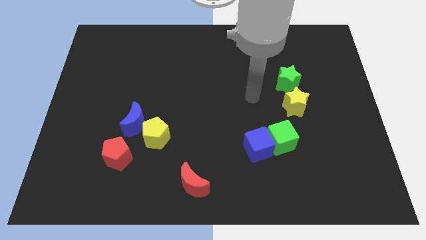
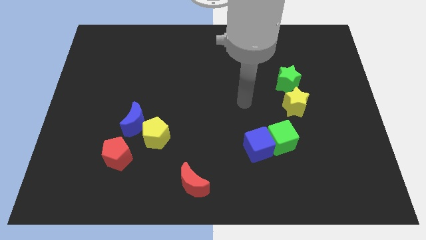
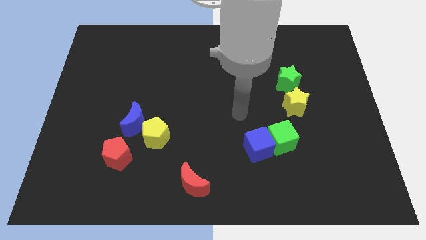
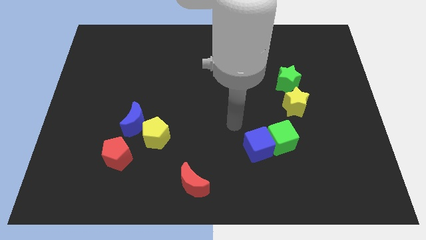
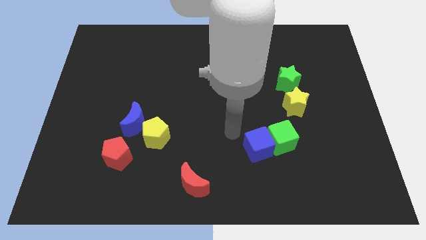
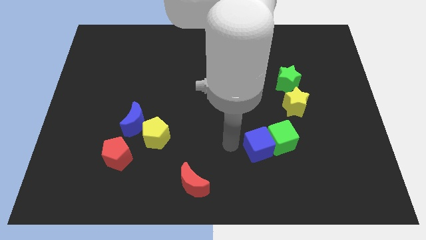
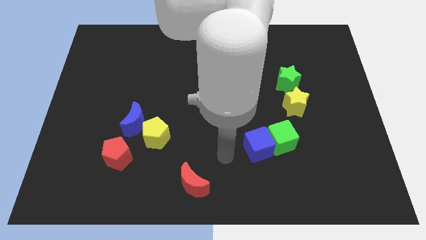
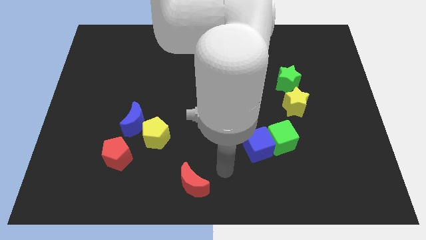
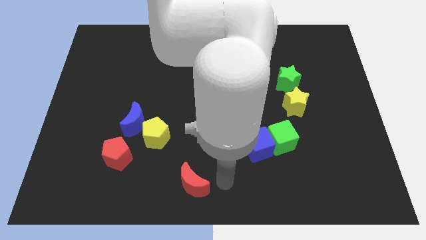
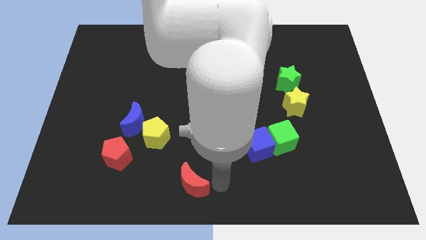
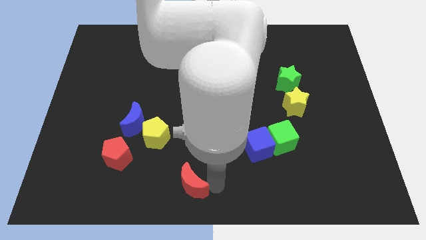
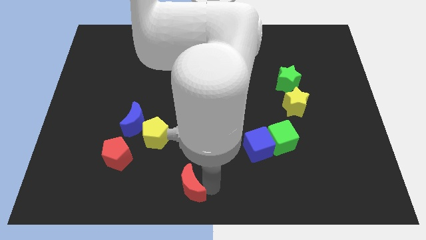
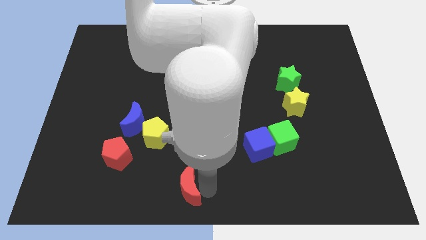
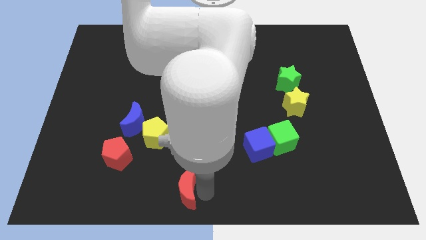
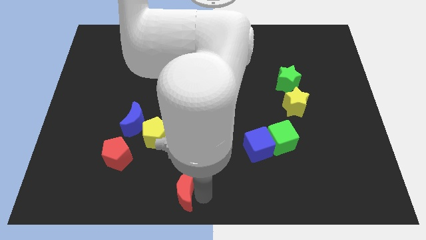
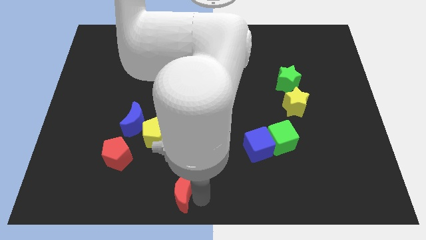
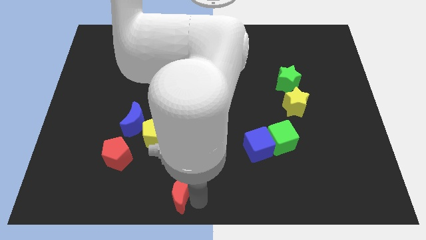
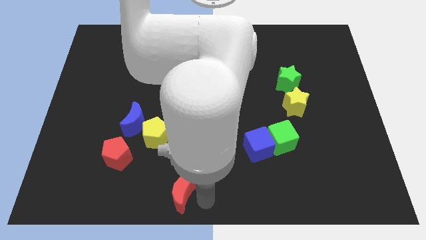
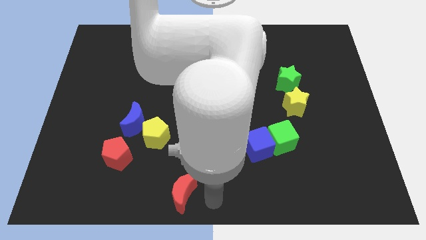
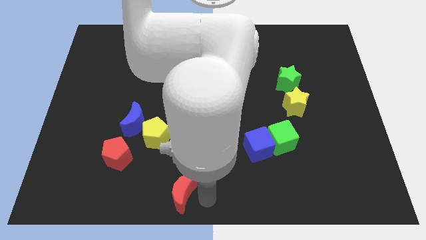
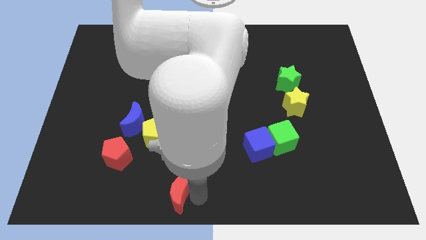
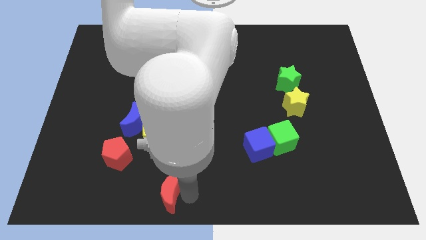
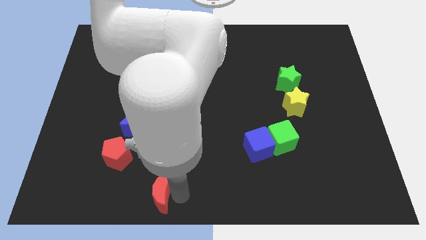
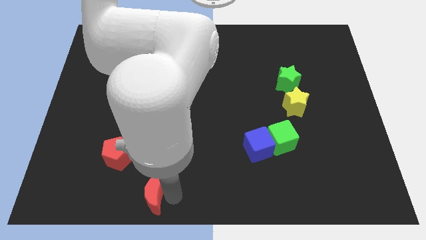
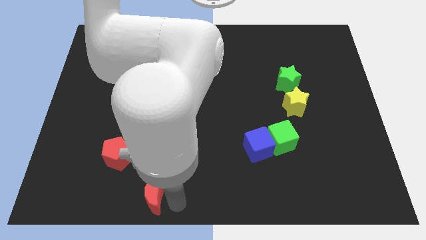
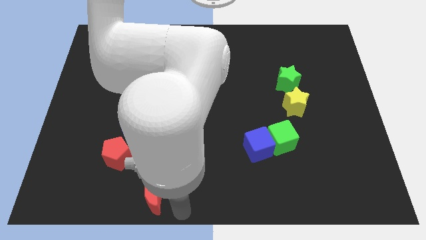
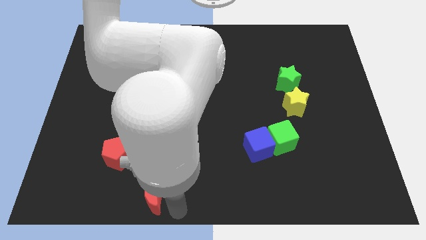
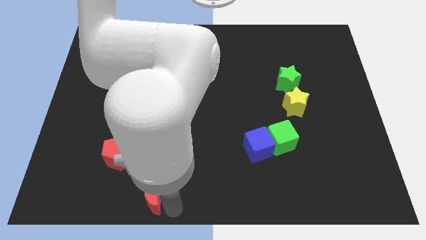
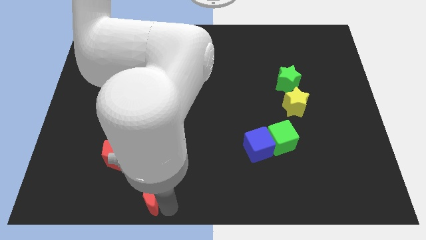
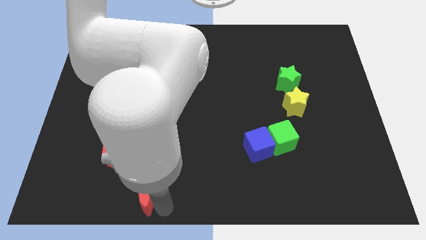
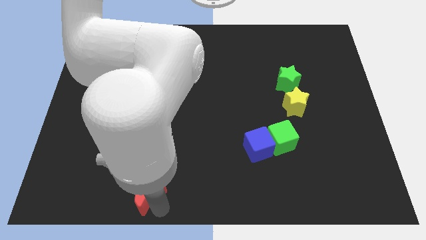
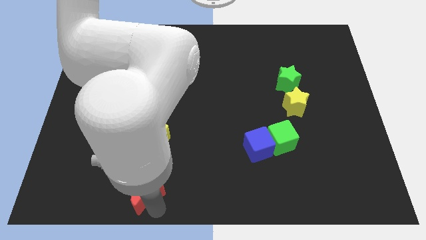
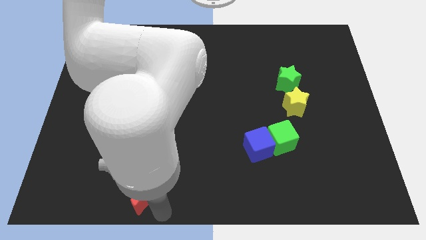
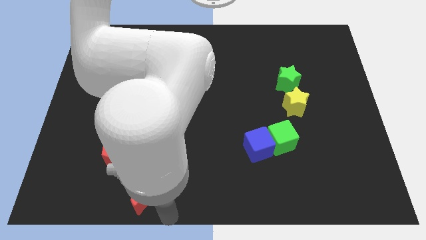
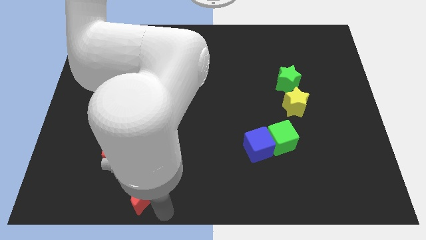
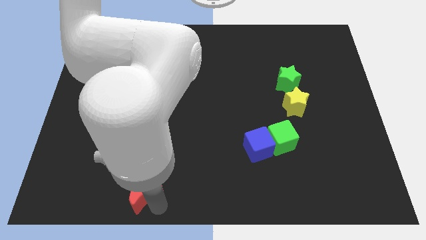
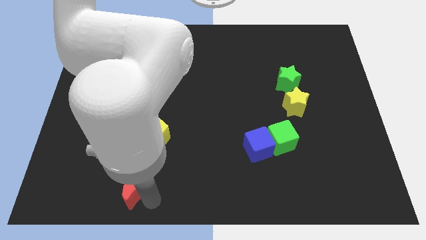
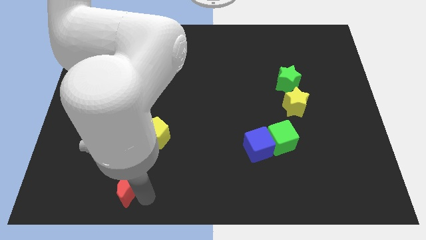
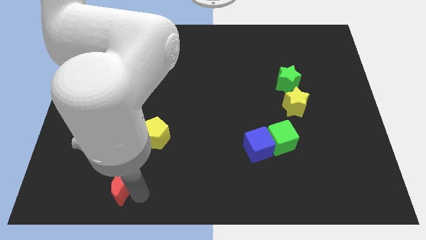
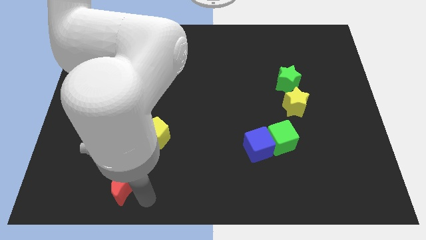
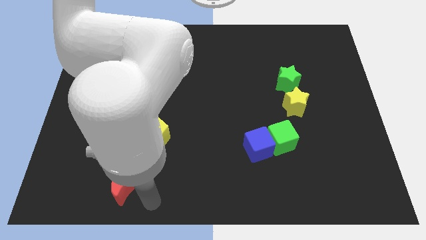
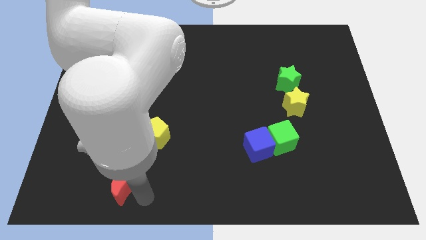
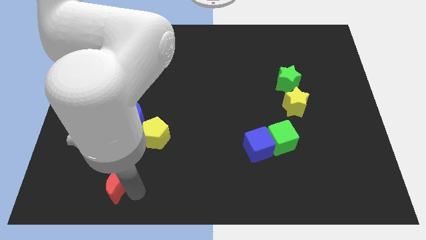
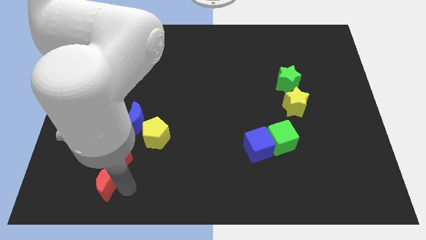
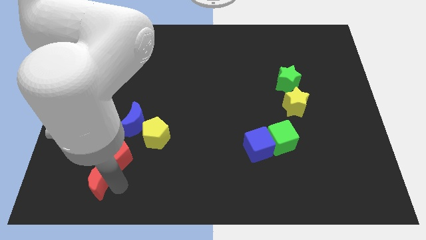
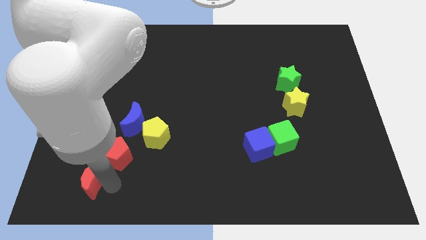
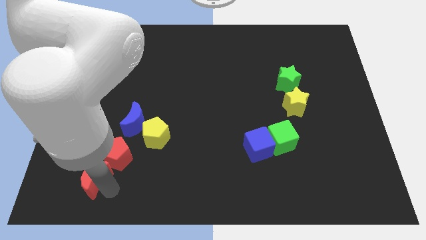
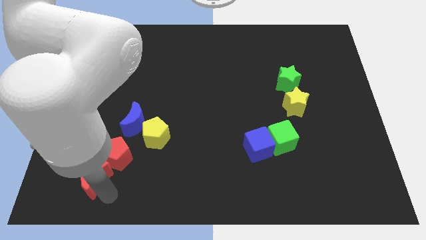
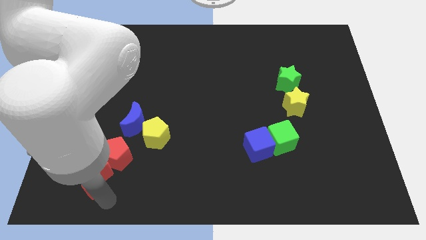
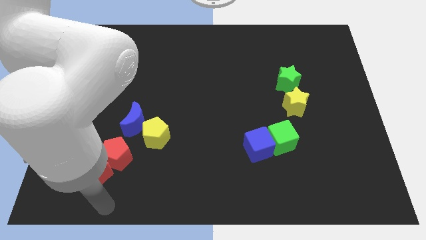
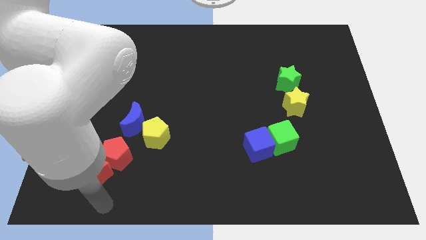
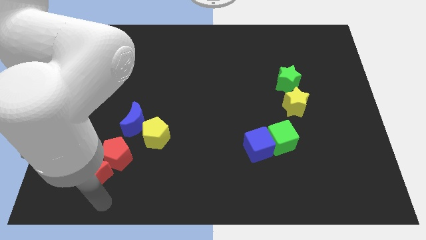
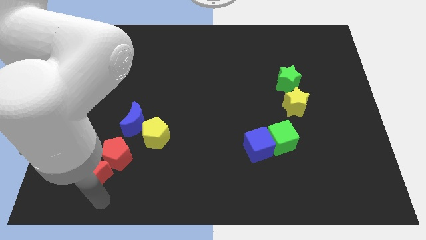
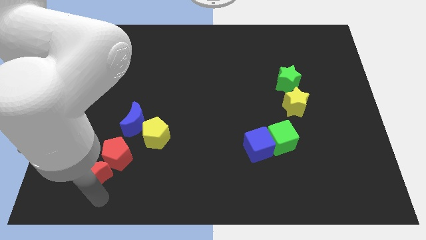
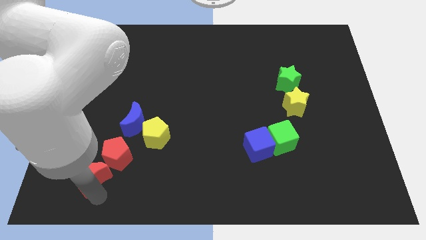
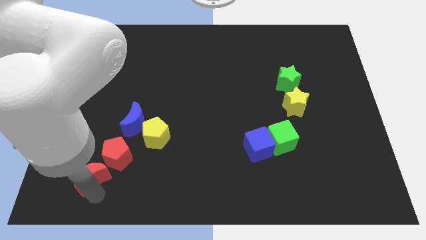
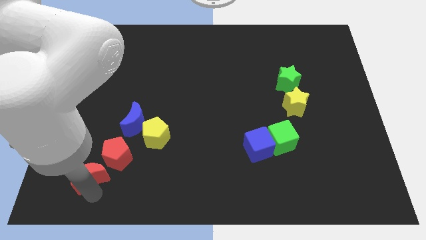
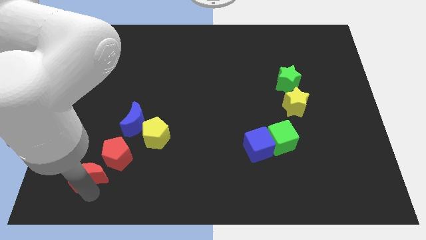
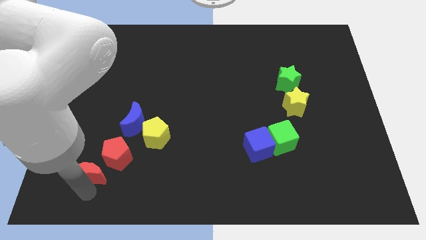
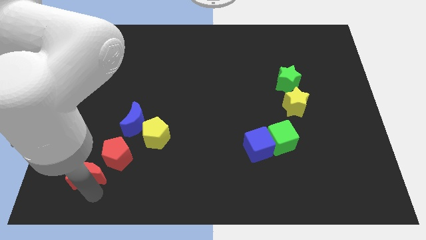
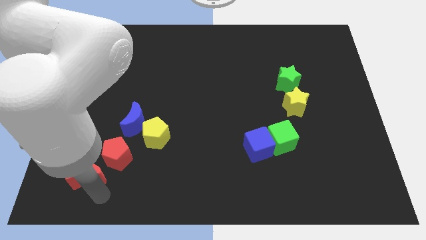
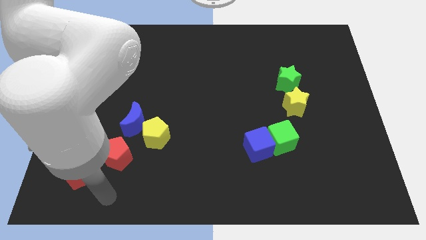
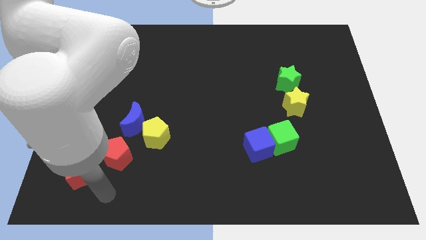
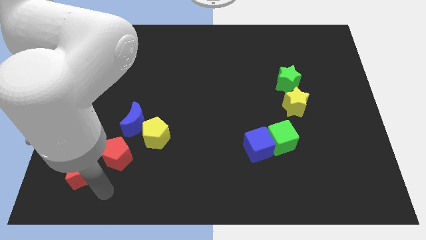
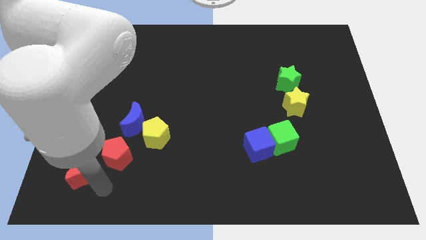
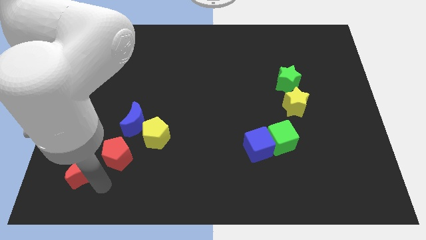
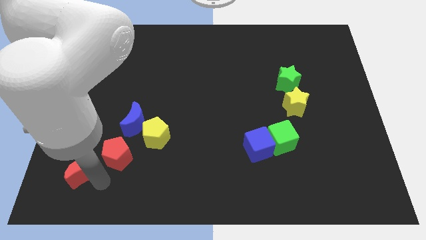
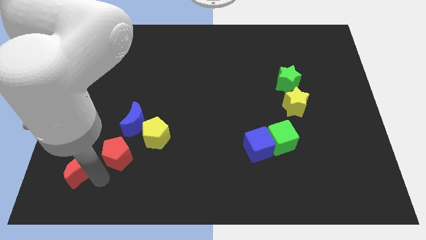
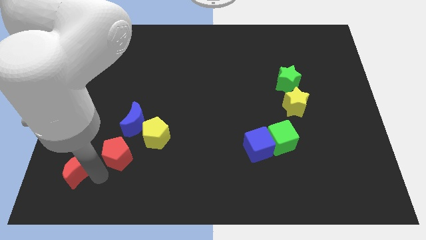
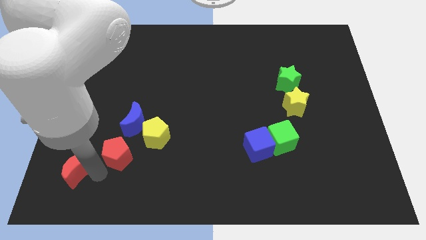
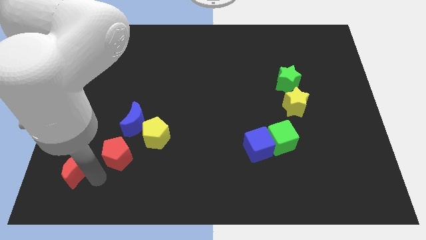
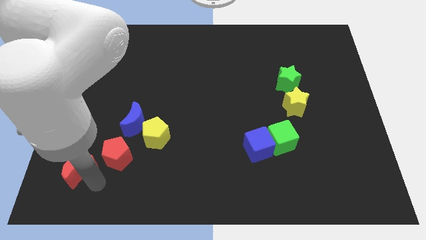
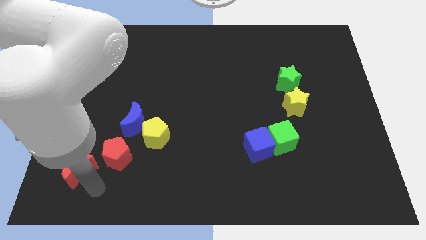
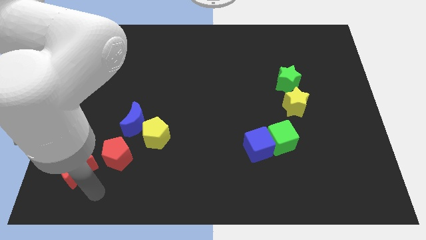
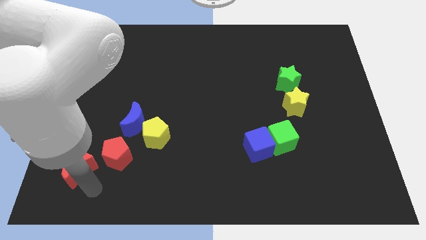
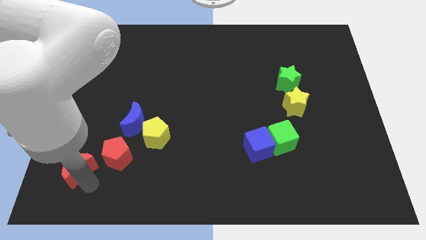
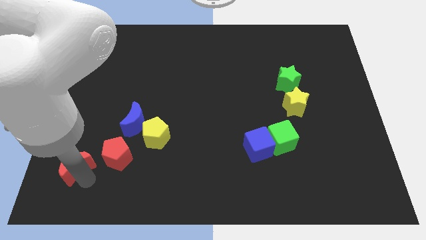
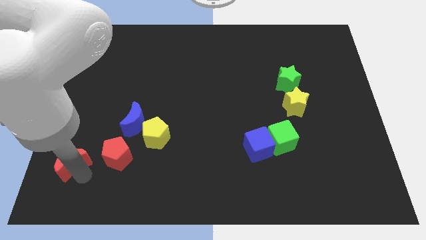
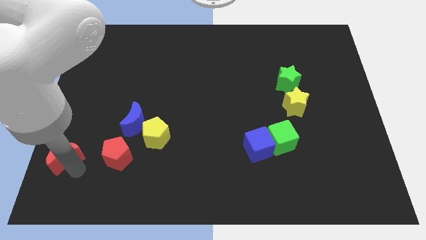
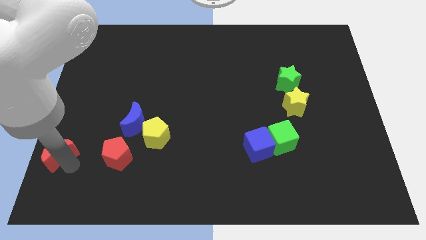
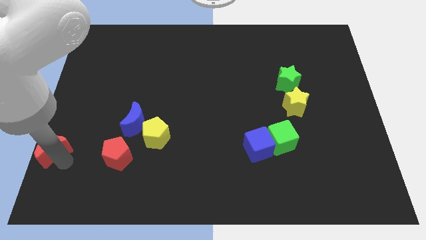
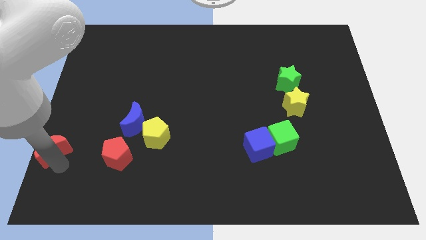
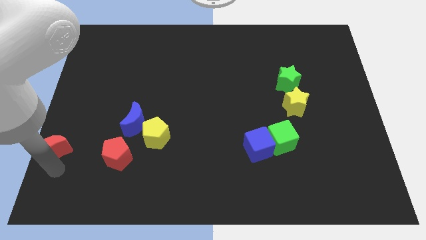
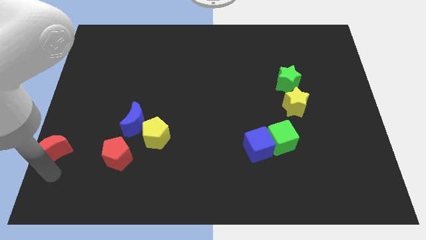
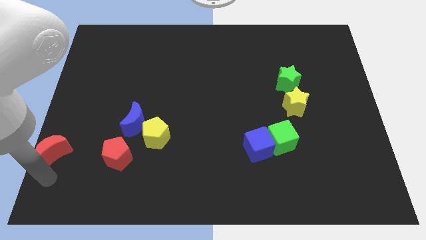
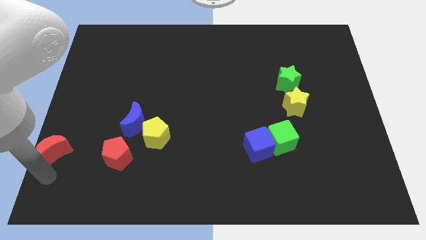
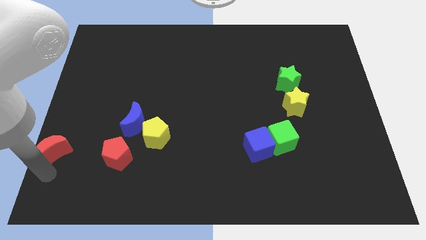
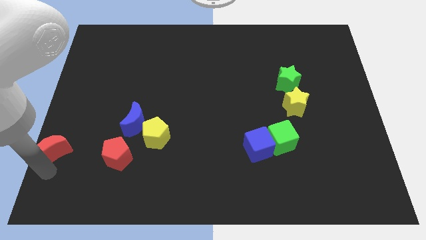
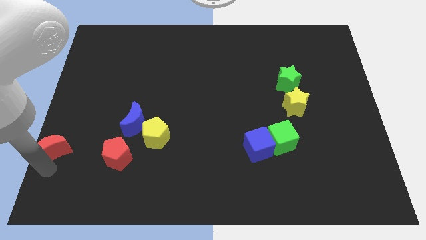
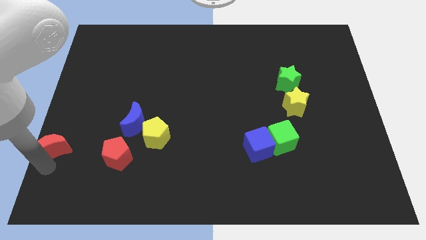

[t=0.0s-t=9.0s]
slide the red moon to the left side of the board
